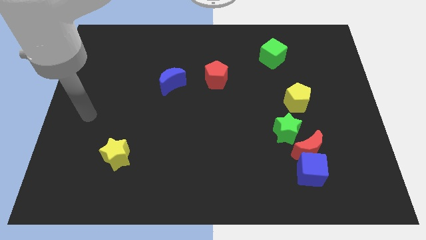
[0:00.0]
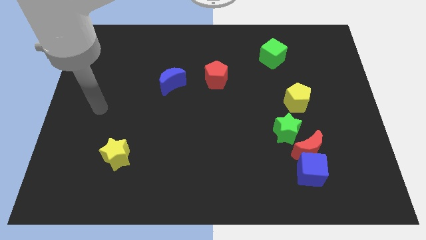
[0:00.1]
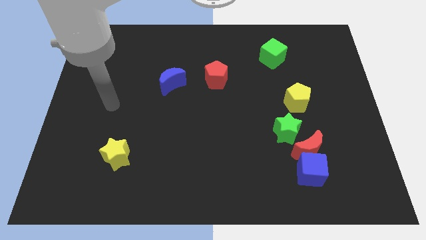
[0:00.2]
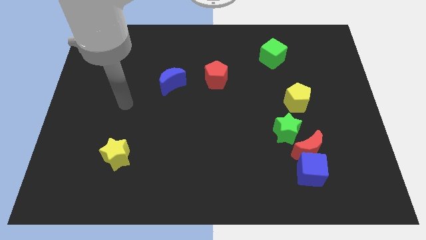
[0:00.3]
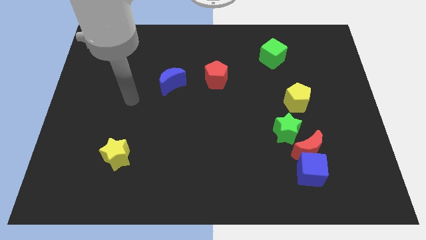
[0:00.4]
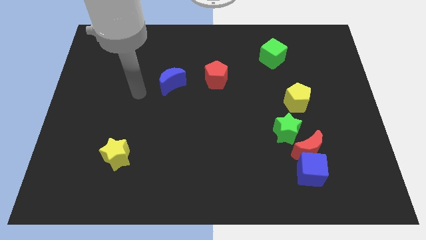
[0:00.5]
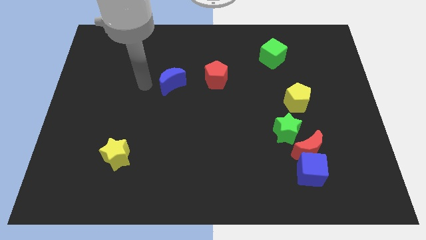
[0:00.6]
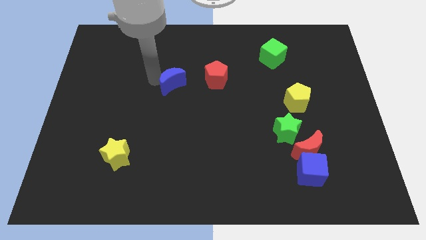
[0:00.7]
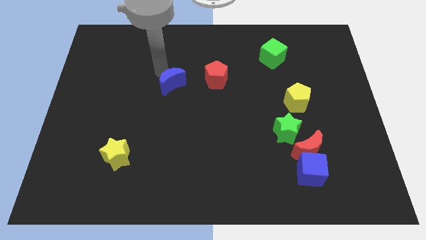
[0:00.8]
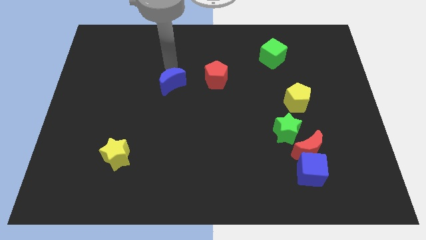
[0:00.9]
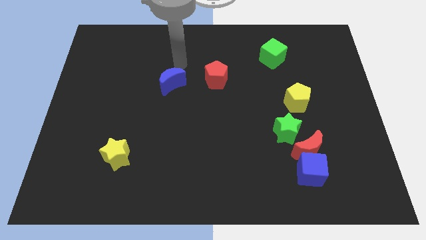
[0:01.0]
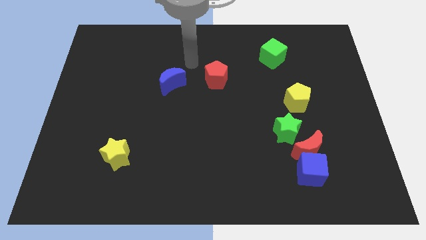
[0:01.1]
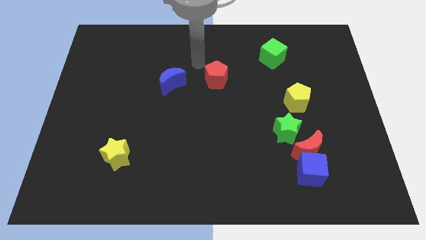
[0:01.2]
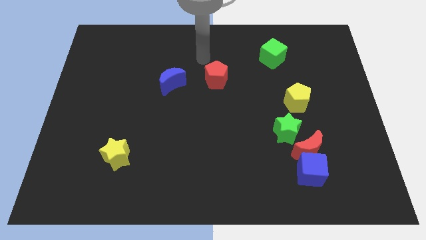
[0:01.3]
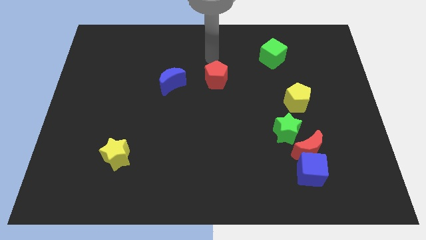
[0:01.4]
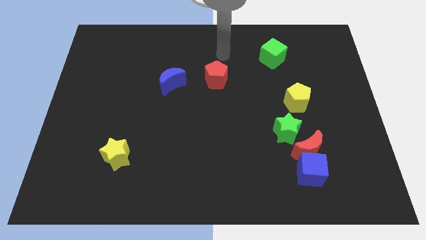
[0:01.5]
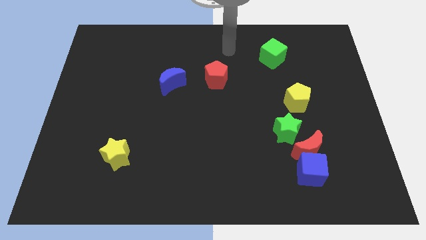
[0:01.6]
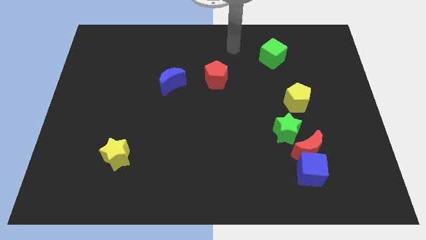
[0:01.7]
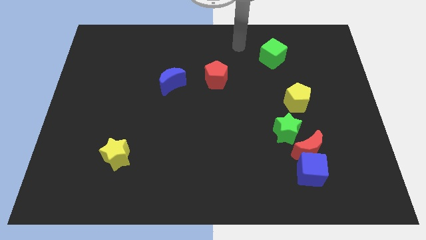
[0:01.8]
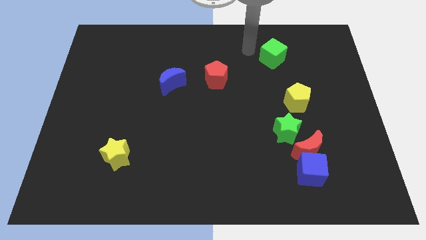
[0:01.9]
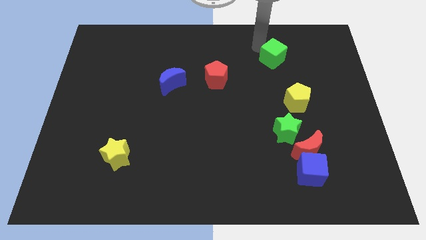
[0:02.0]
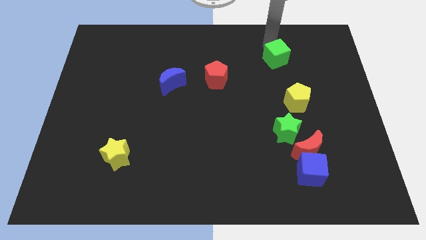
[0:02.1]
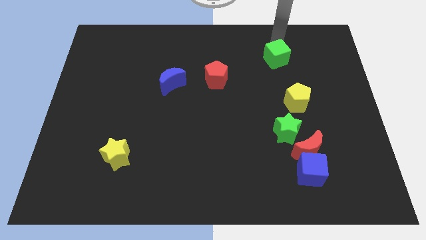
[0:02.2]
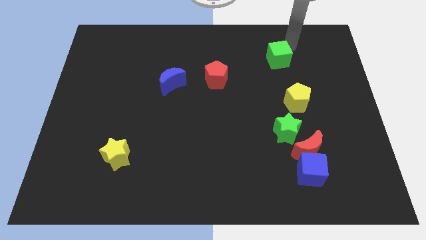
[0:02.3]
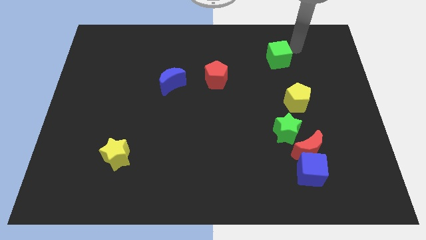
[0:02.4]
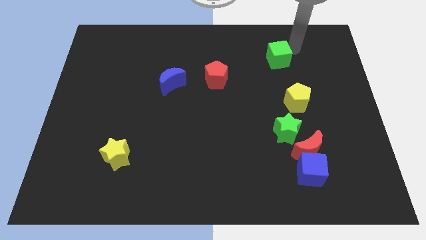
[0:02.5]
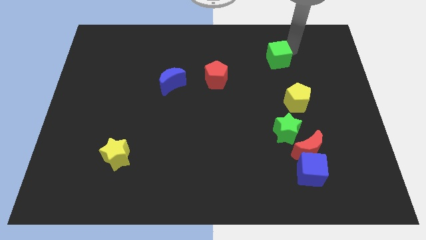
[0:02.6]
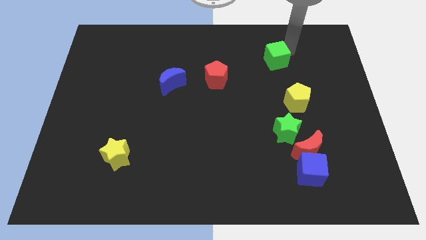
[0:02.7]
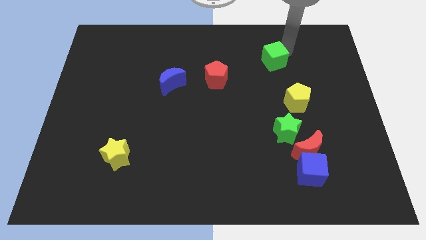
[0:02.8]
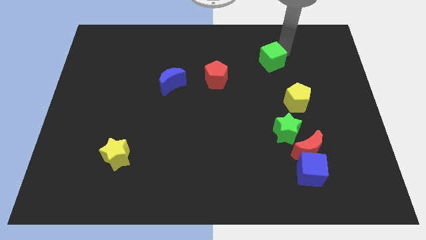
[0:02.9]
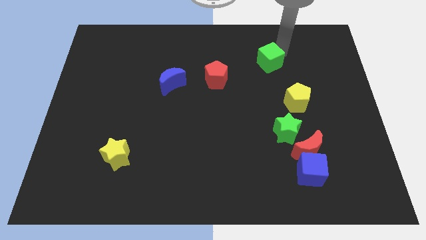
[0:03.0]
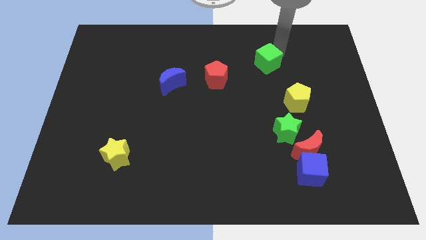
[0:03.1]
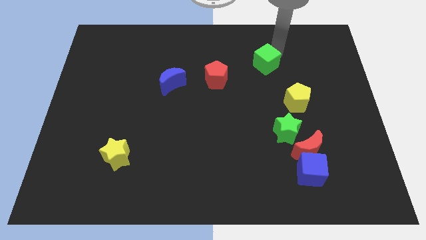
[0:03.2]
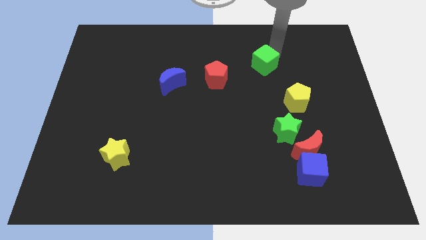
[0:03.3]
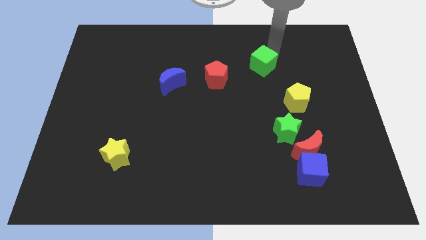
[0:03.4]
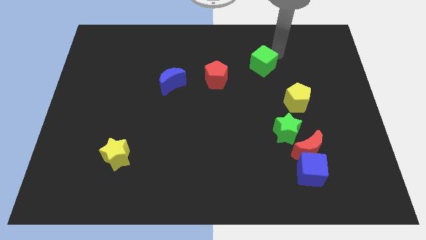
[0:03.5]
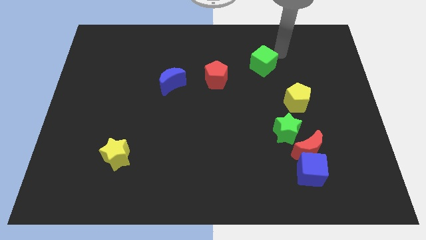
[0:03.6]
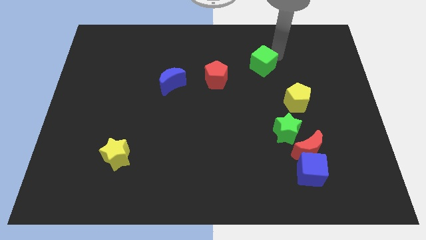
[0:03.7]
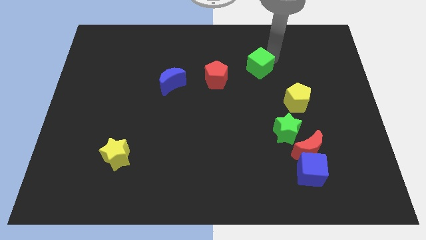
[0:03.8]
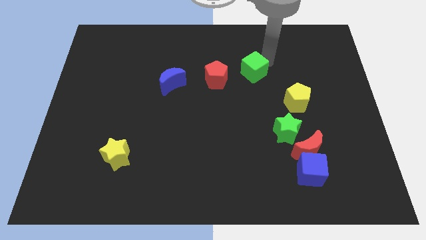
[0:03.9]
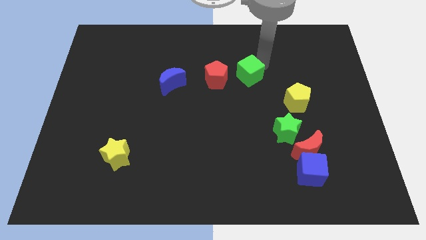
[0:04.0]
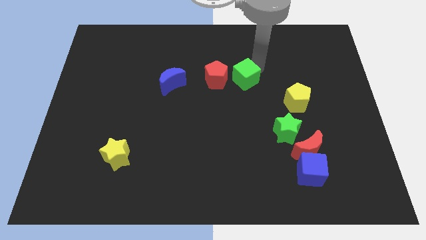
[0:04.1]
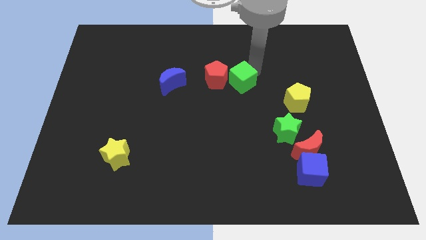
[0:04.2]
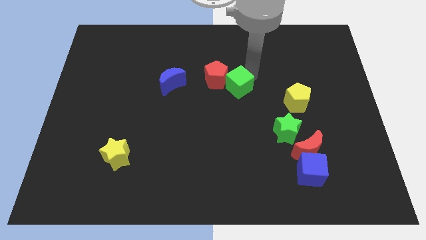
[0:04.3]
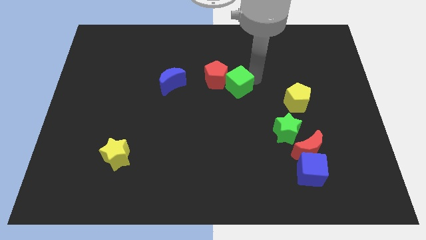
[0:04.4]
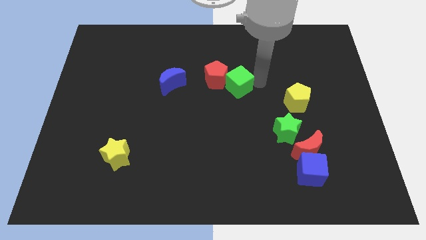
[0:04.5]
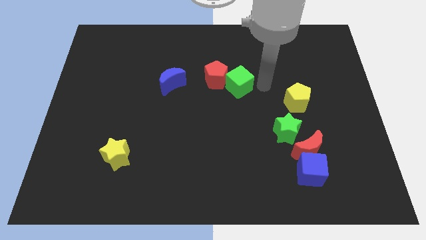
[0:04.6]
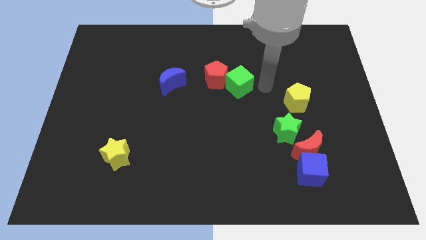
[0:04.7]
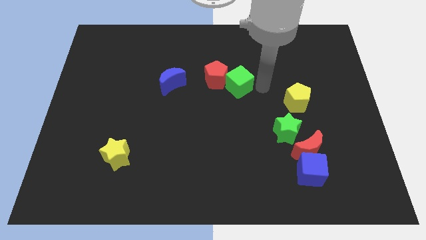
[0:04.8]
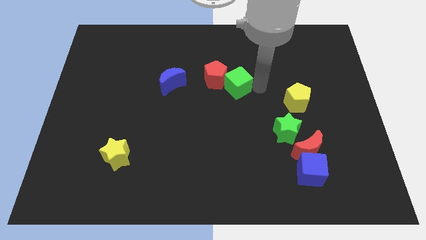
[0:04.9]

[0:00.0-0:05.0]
slide the green cube to the right of the blue moon

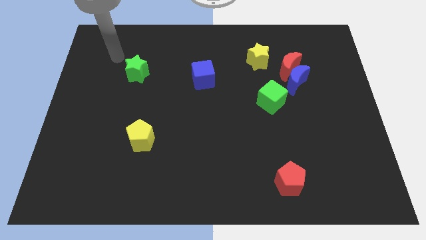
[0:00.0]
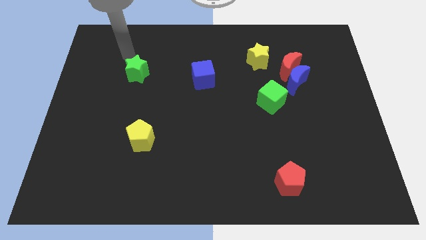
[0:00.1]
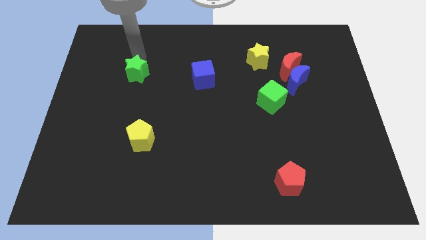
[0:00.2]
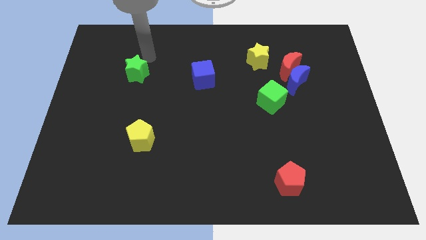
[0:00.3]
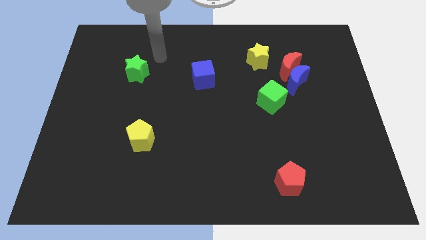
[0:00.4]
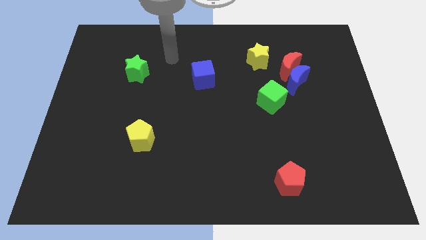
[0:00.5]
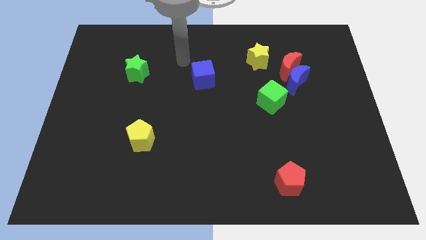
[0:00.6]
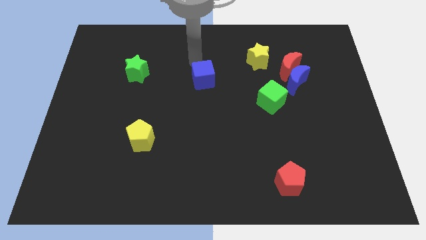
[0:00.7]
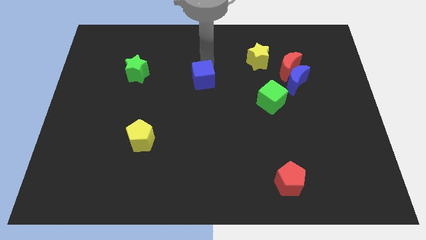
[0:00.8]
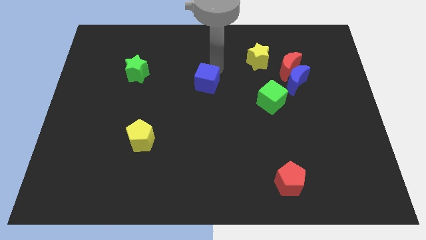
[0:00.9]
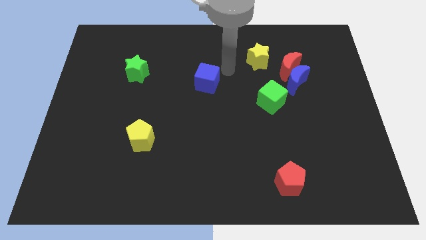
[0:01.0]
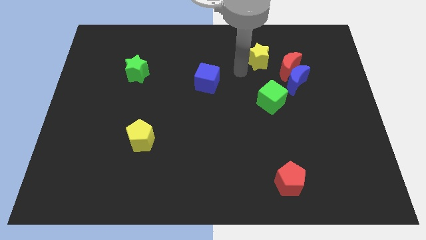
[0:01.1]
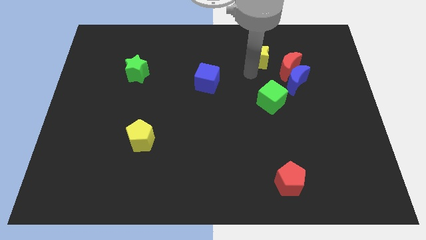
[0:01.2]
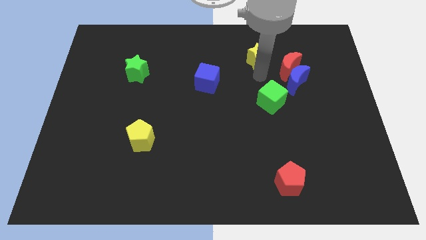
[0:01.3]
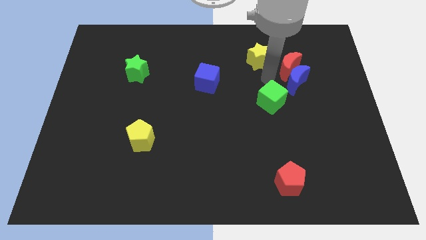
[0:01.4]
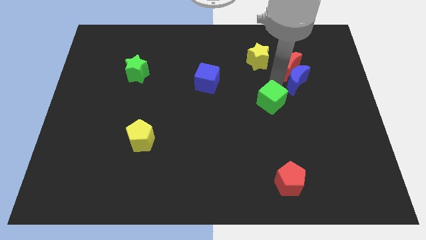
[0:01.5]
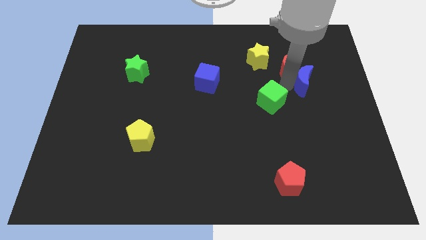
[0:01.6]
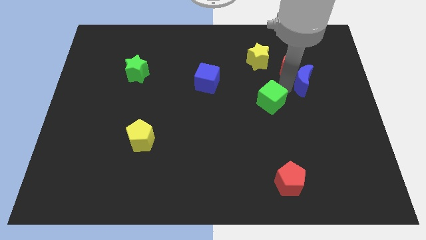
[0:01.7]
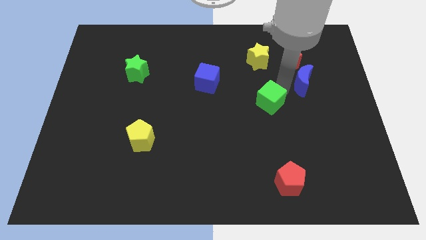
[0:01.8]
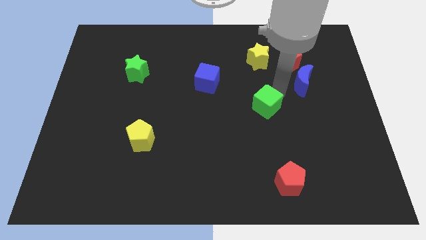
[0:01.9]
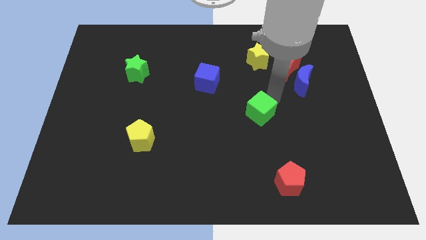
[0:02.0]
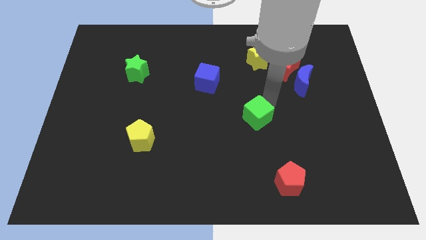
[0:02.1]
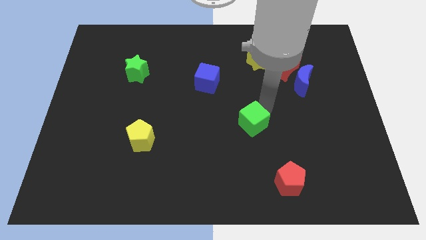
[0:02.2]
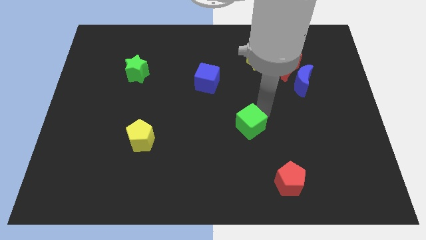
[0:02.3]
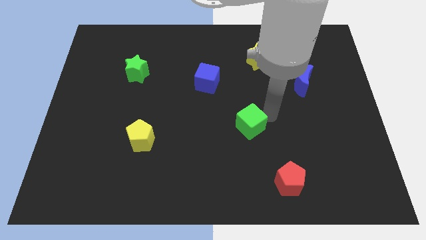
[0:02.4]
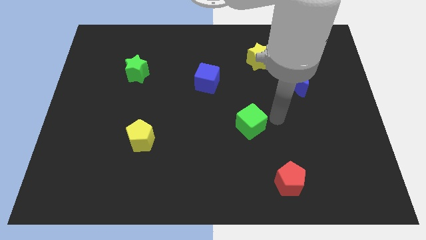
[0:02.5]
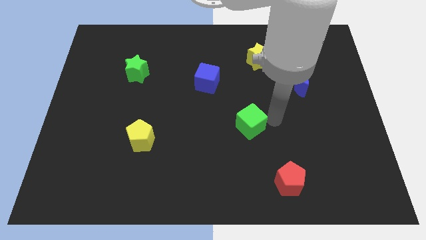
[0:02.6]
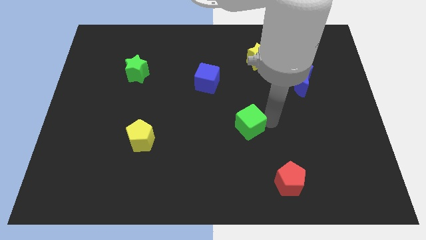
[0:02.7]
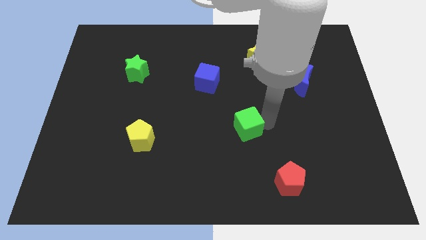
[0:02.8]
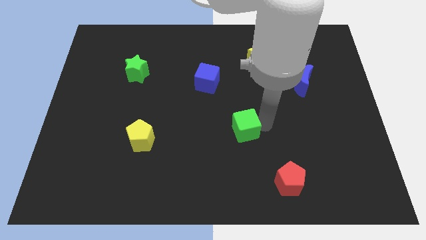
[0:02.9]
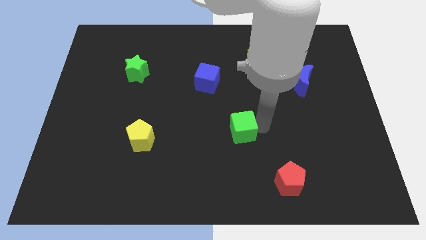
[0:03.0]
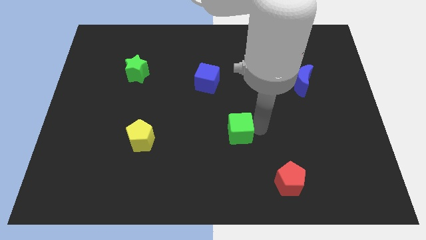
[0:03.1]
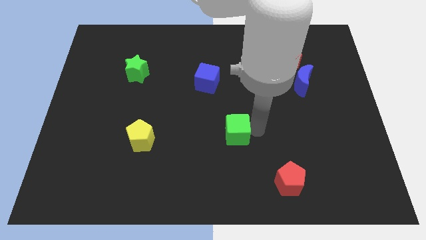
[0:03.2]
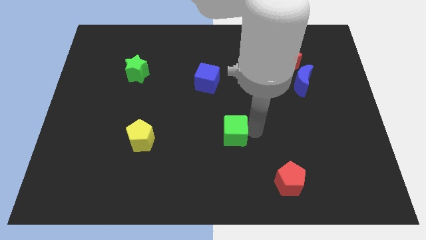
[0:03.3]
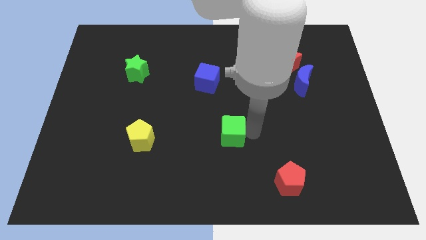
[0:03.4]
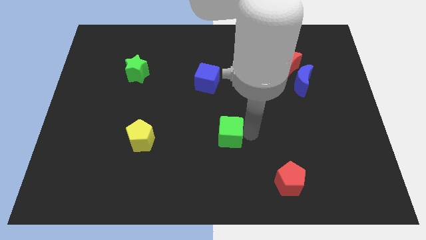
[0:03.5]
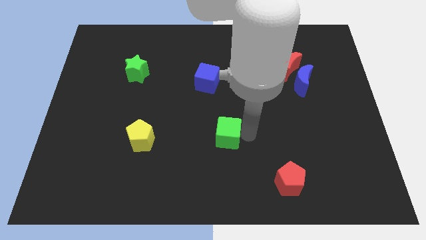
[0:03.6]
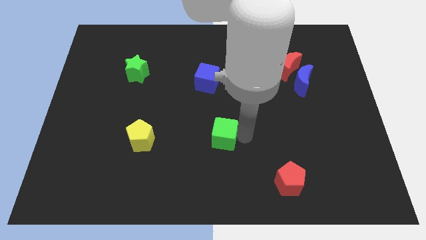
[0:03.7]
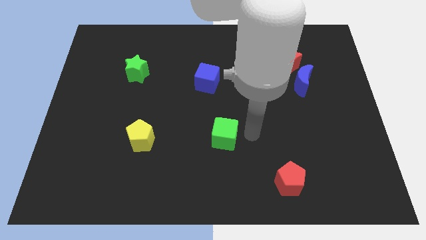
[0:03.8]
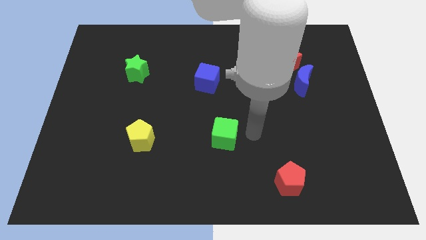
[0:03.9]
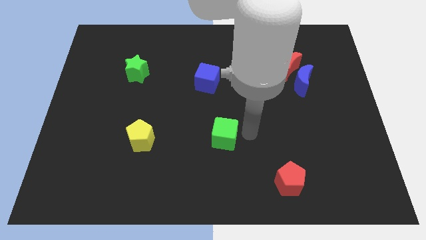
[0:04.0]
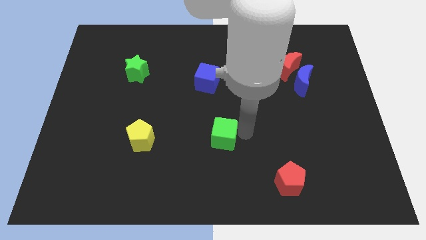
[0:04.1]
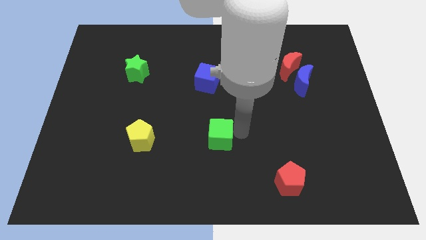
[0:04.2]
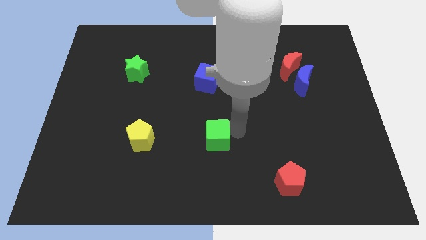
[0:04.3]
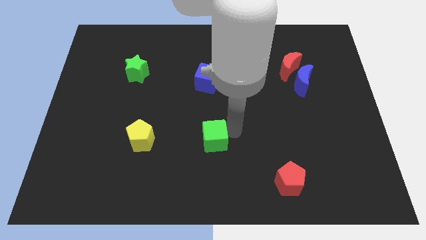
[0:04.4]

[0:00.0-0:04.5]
move the green cube to the right of the yellow pentagon
